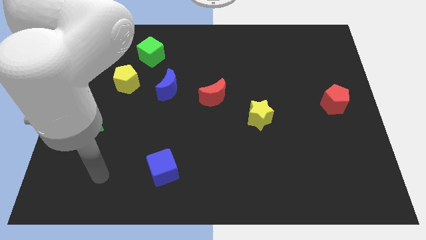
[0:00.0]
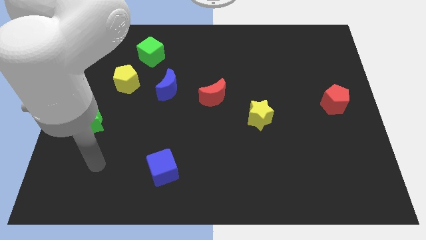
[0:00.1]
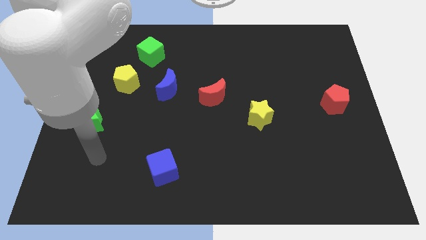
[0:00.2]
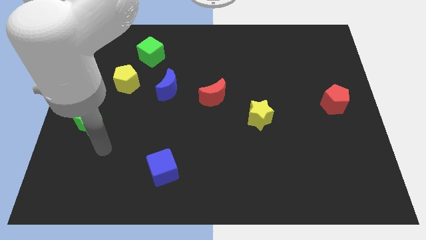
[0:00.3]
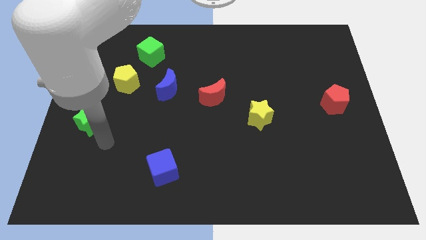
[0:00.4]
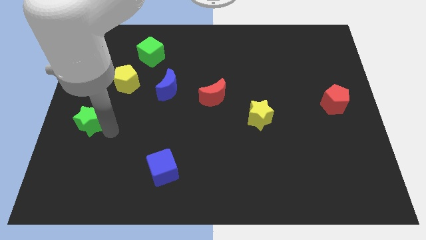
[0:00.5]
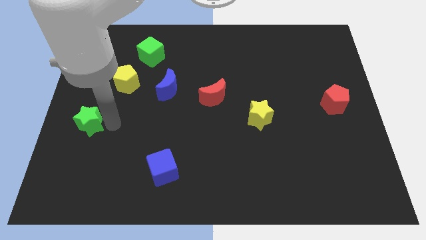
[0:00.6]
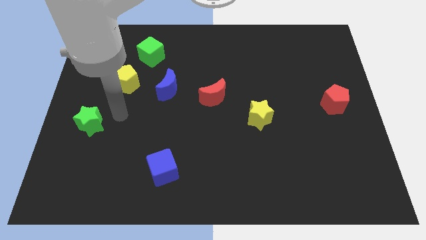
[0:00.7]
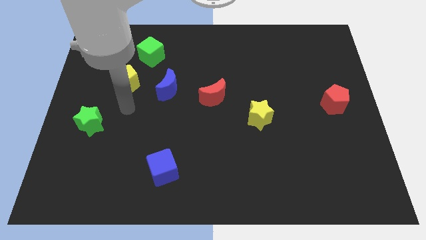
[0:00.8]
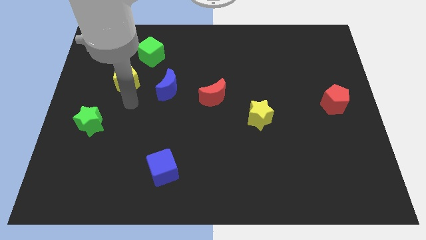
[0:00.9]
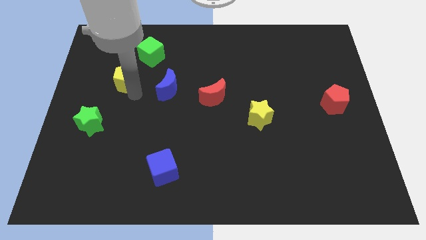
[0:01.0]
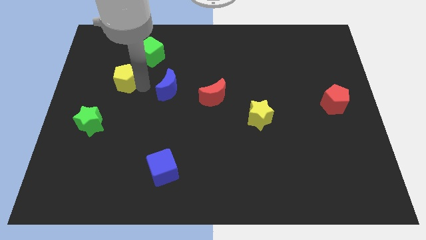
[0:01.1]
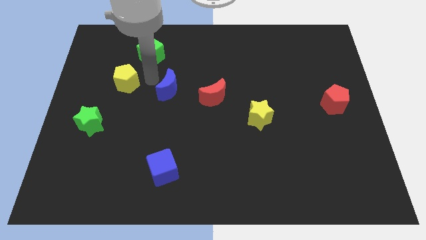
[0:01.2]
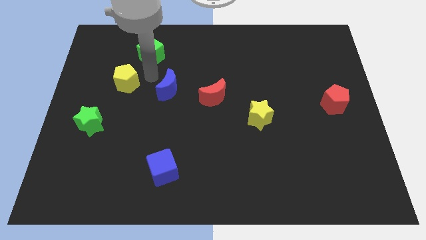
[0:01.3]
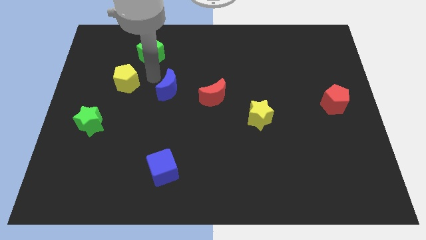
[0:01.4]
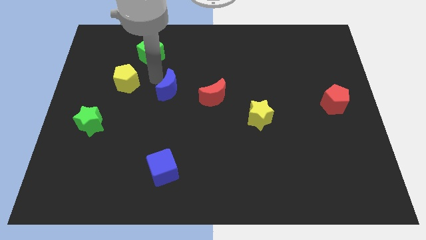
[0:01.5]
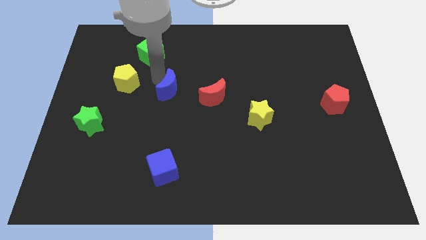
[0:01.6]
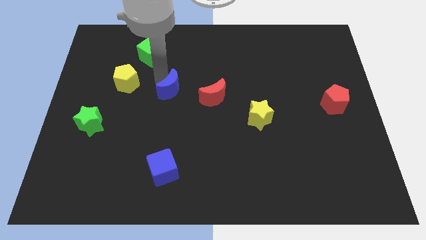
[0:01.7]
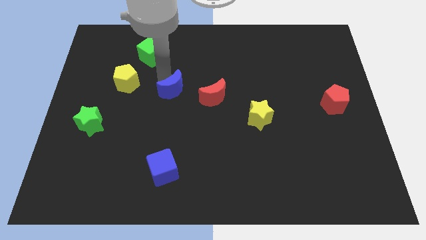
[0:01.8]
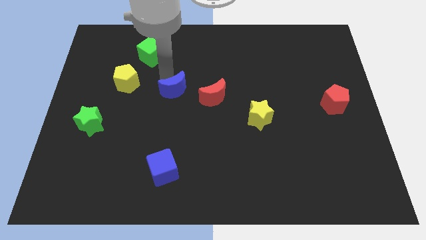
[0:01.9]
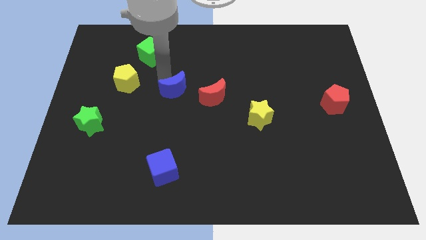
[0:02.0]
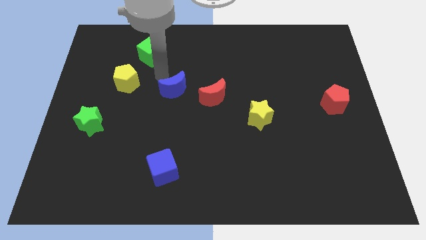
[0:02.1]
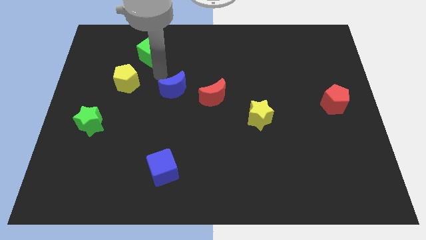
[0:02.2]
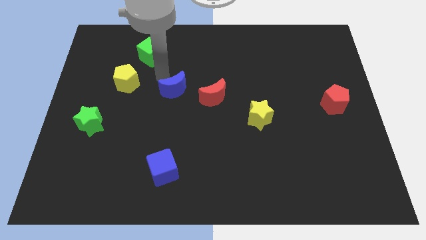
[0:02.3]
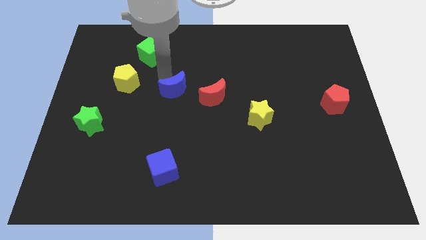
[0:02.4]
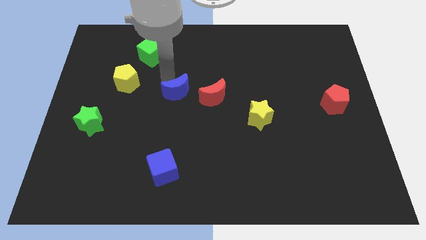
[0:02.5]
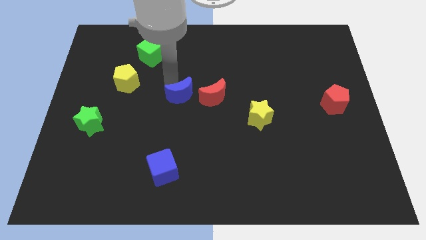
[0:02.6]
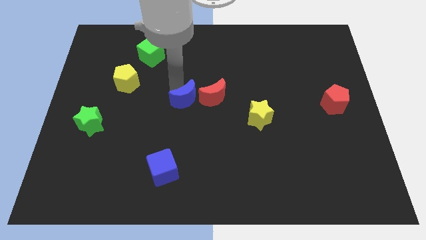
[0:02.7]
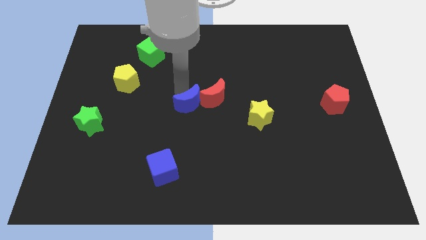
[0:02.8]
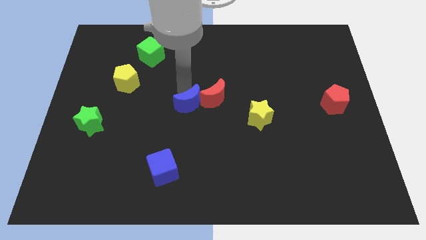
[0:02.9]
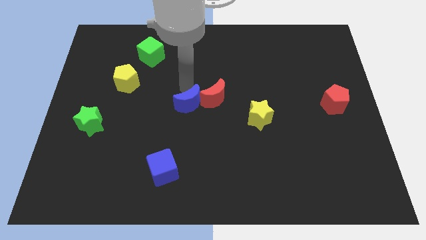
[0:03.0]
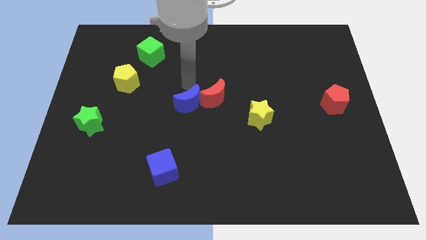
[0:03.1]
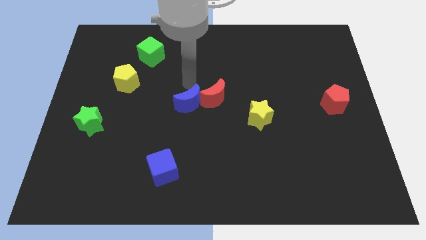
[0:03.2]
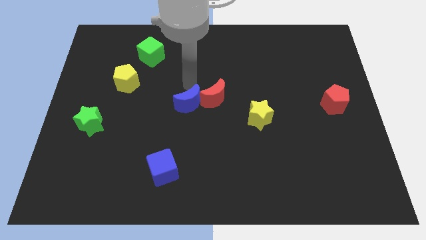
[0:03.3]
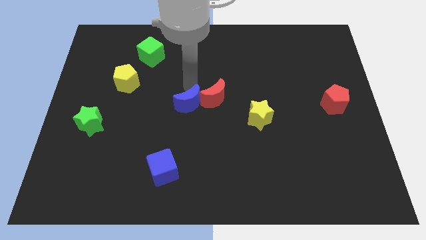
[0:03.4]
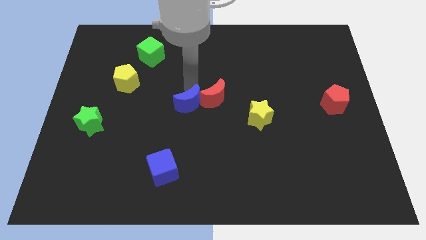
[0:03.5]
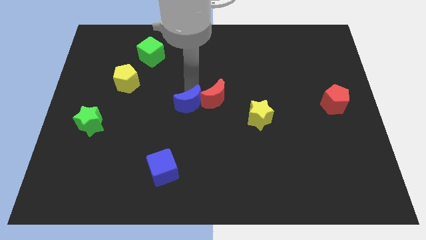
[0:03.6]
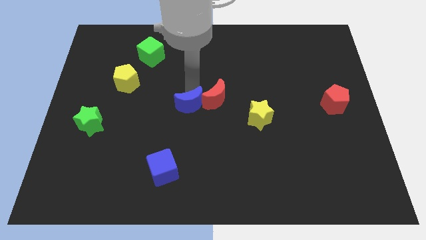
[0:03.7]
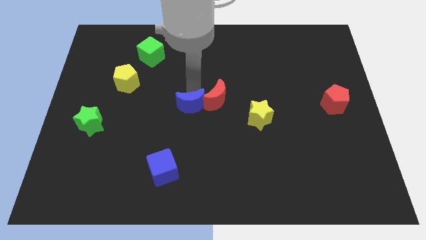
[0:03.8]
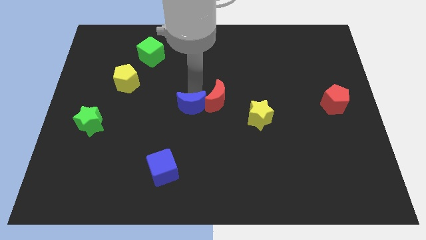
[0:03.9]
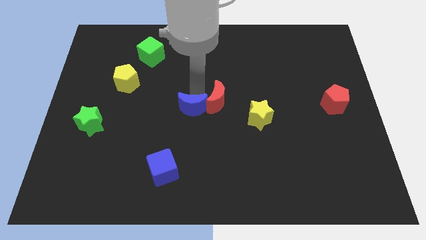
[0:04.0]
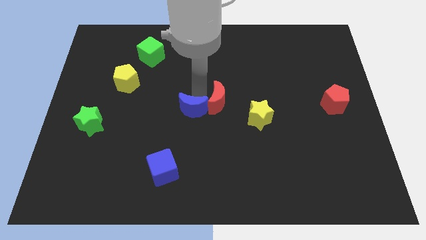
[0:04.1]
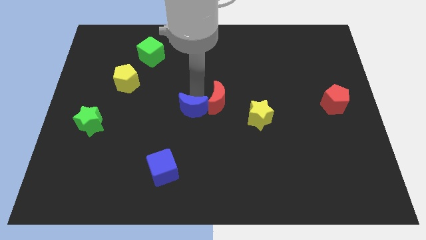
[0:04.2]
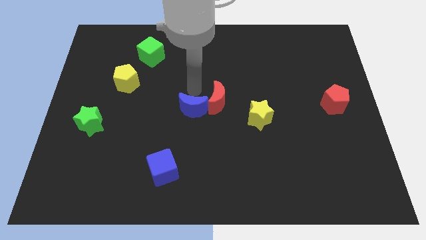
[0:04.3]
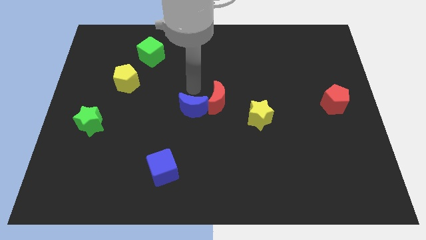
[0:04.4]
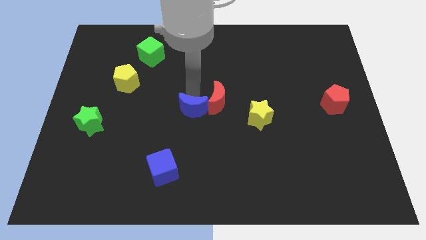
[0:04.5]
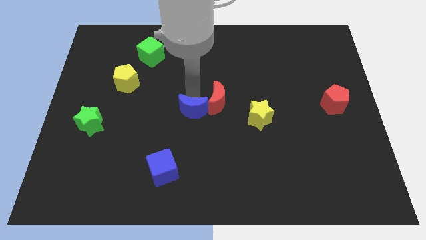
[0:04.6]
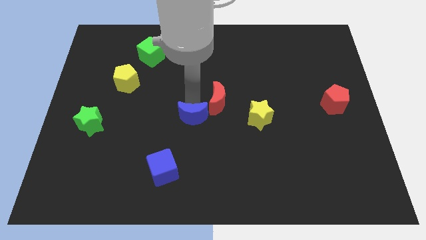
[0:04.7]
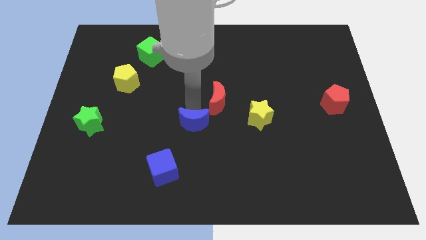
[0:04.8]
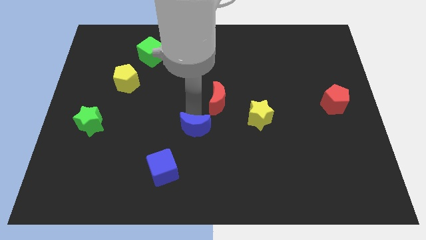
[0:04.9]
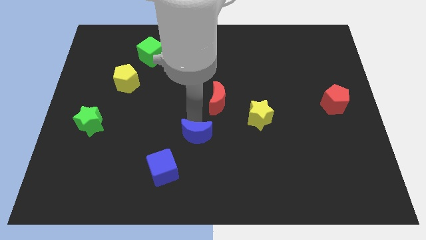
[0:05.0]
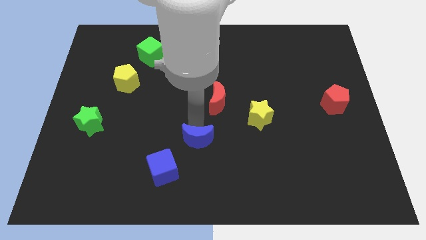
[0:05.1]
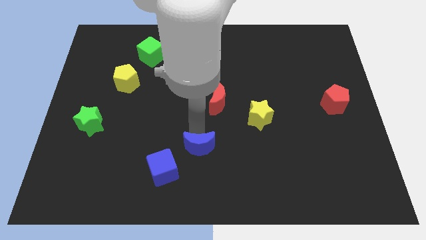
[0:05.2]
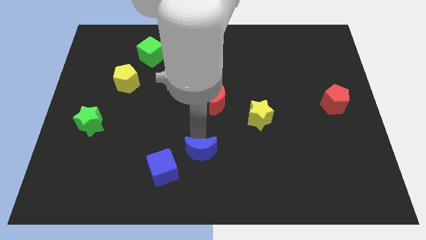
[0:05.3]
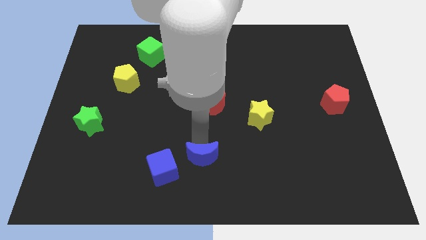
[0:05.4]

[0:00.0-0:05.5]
push the blue moon to the bottom

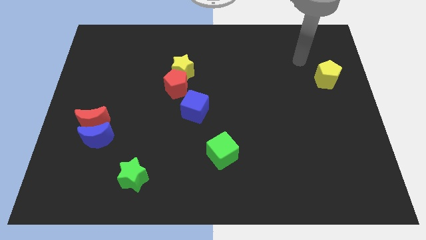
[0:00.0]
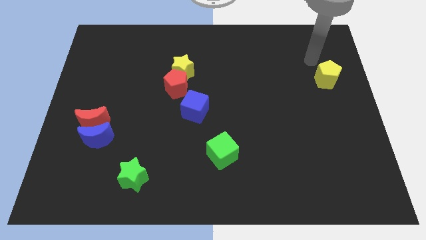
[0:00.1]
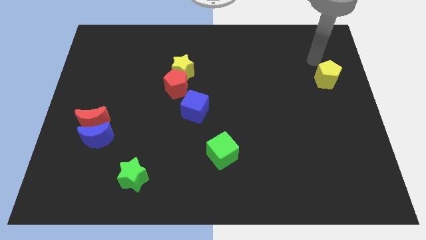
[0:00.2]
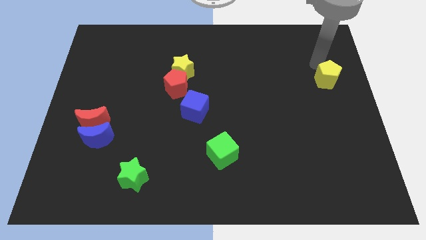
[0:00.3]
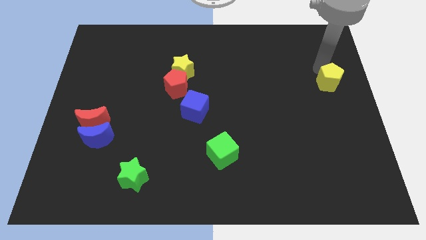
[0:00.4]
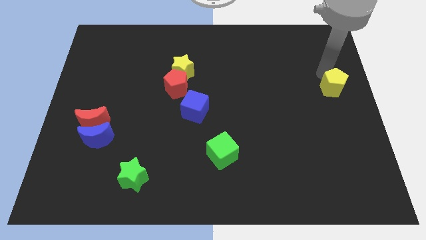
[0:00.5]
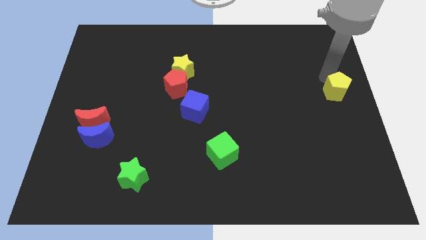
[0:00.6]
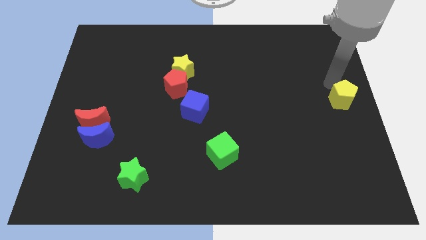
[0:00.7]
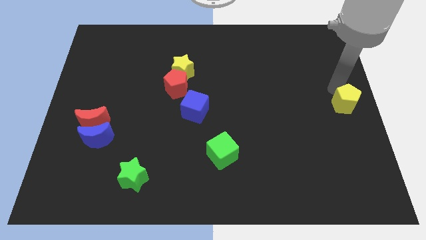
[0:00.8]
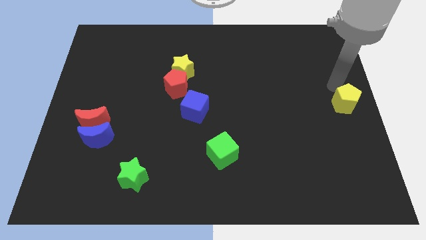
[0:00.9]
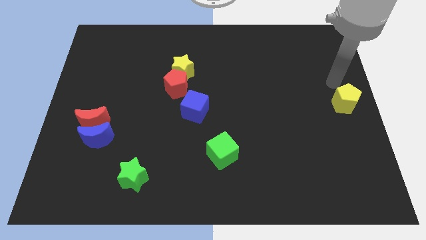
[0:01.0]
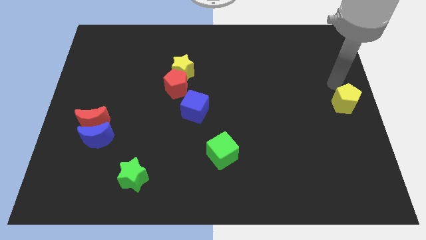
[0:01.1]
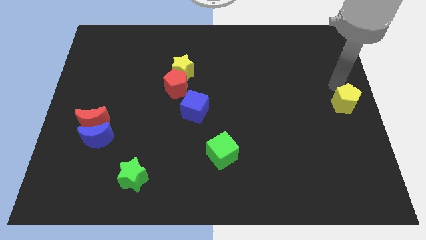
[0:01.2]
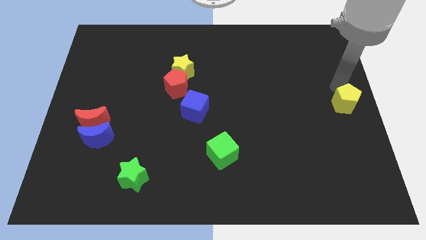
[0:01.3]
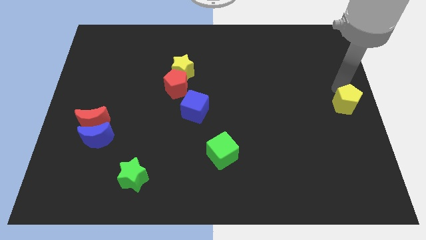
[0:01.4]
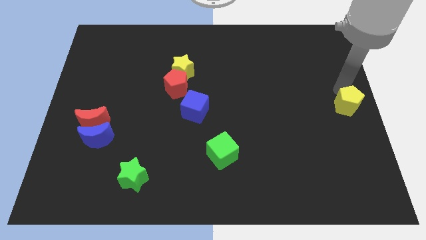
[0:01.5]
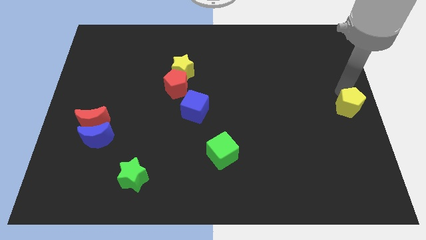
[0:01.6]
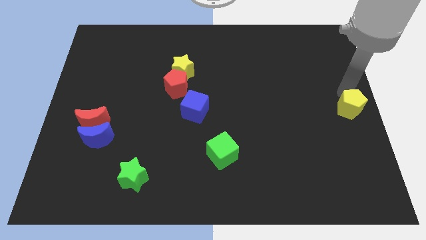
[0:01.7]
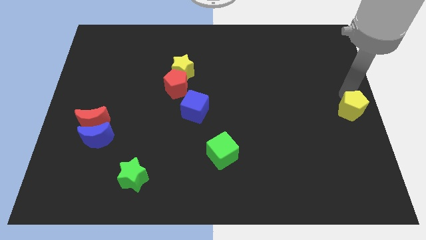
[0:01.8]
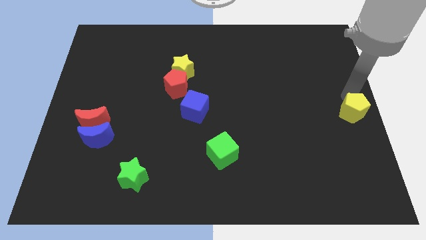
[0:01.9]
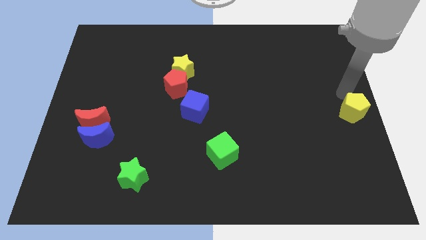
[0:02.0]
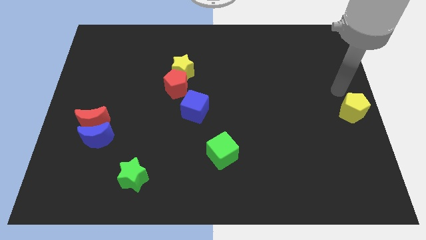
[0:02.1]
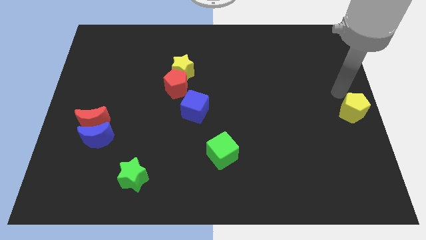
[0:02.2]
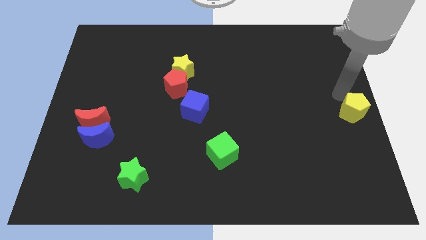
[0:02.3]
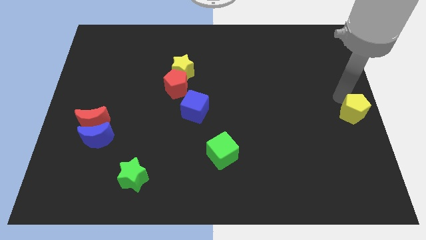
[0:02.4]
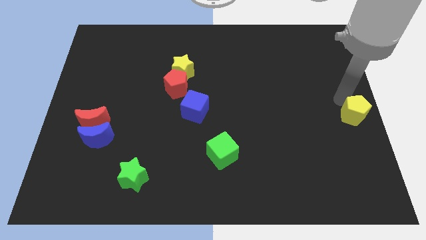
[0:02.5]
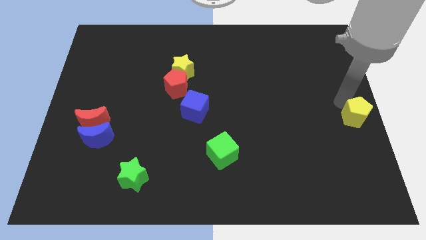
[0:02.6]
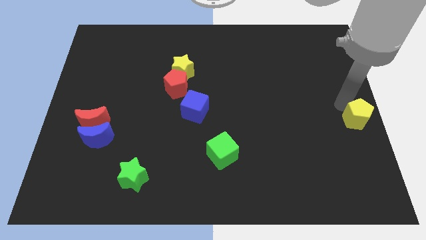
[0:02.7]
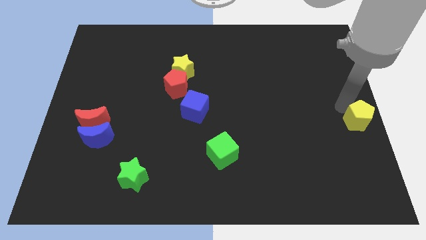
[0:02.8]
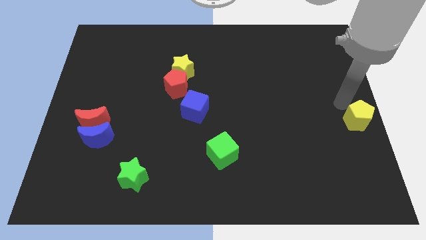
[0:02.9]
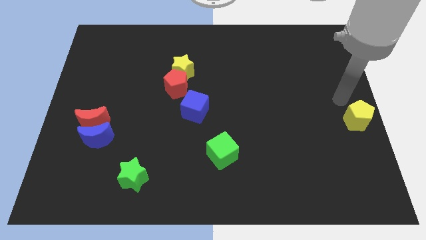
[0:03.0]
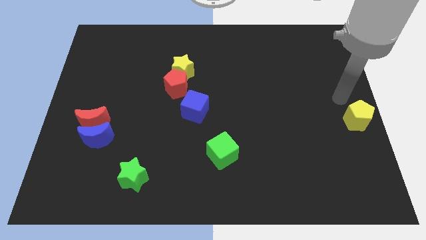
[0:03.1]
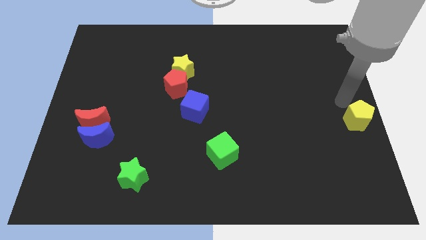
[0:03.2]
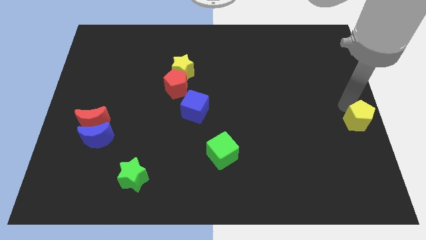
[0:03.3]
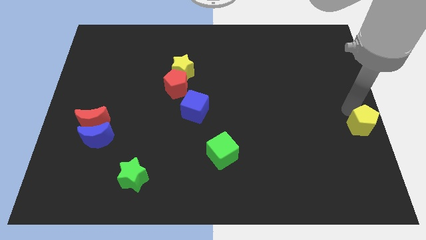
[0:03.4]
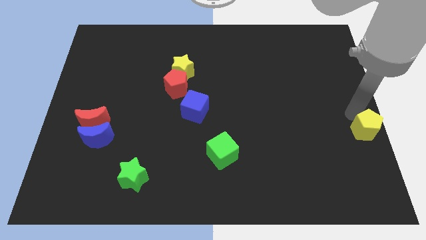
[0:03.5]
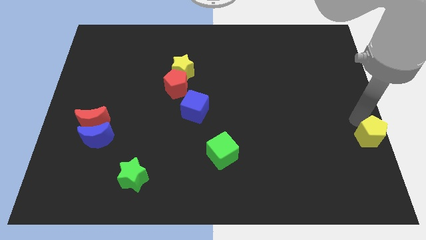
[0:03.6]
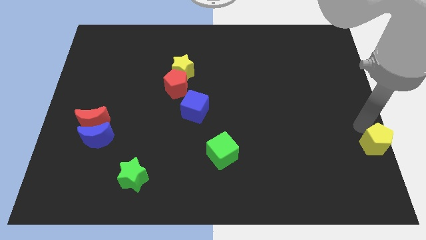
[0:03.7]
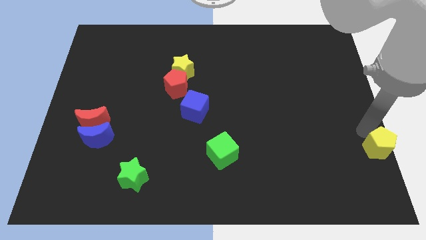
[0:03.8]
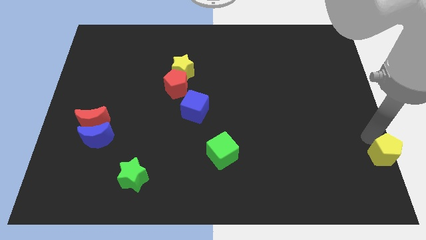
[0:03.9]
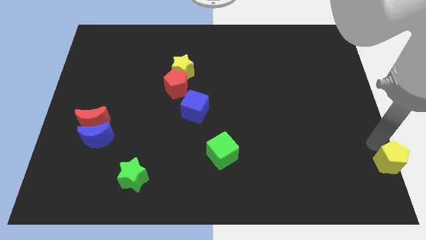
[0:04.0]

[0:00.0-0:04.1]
move the yellow pentagon to the bottom right of the board
